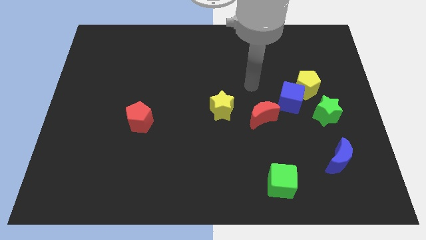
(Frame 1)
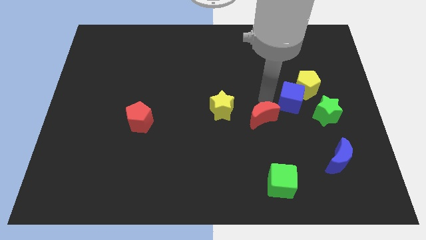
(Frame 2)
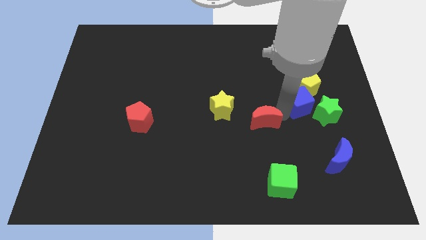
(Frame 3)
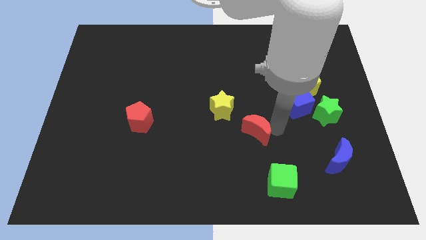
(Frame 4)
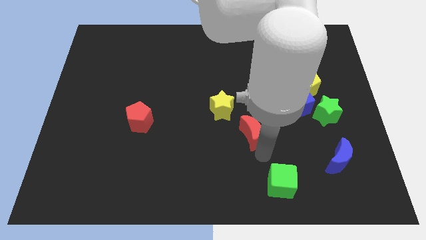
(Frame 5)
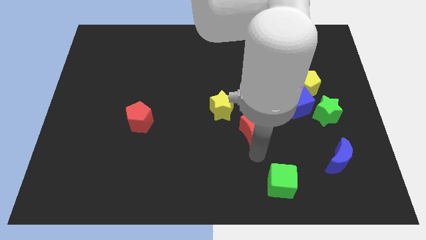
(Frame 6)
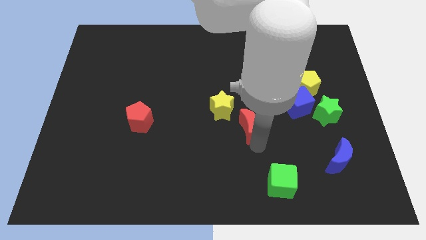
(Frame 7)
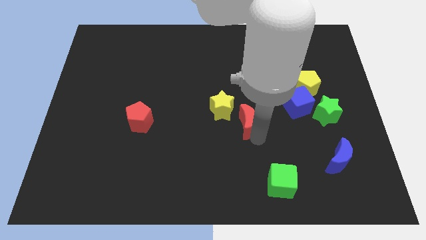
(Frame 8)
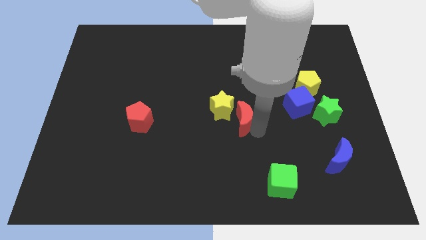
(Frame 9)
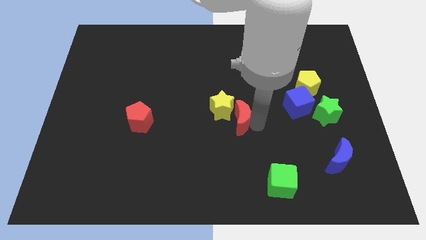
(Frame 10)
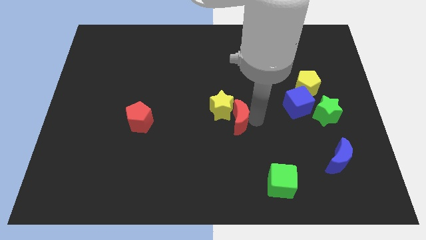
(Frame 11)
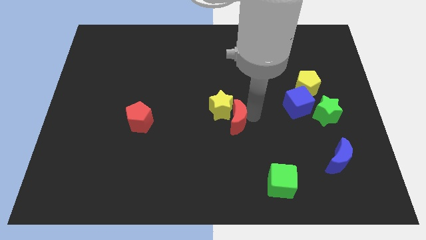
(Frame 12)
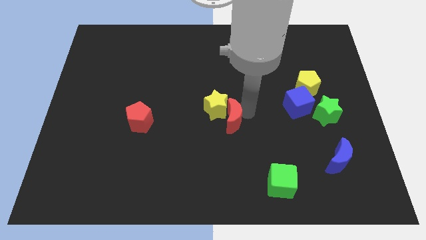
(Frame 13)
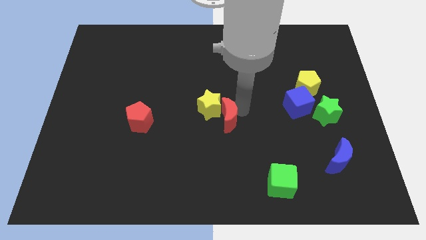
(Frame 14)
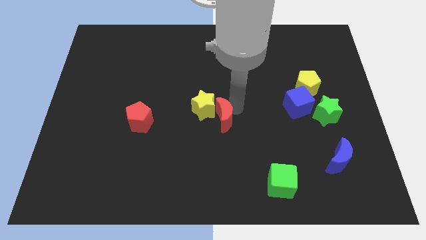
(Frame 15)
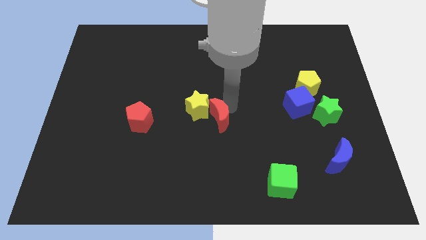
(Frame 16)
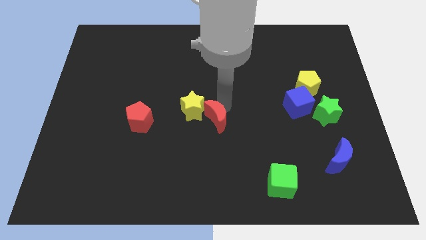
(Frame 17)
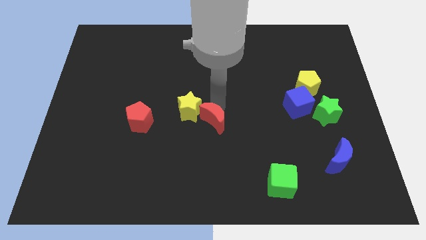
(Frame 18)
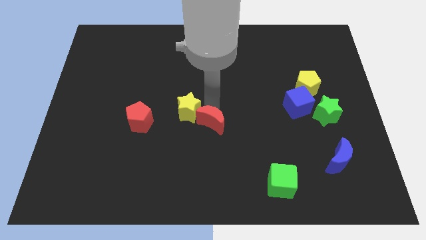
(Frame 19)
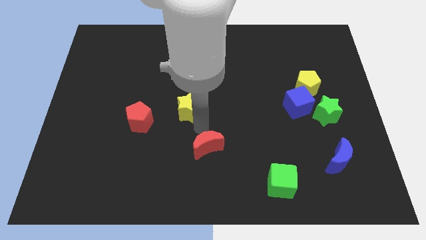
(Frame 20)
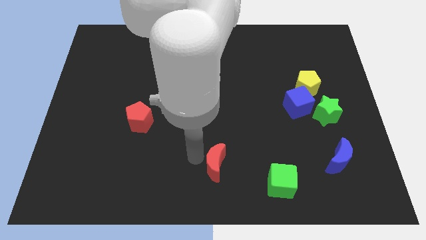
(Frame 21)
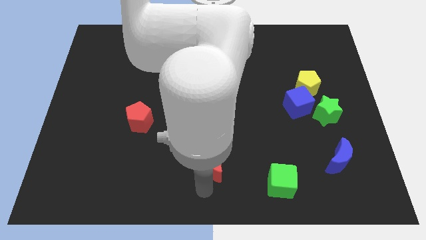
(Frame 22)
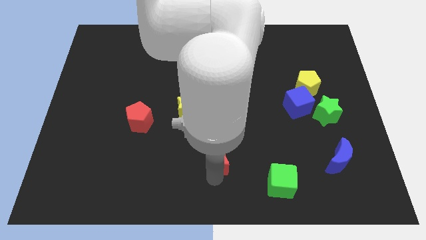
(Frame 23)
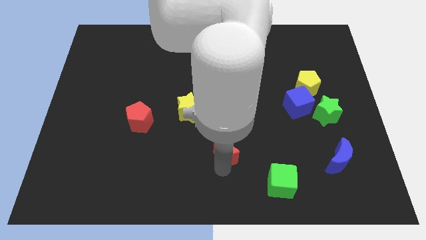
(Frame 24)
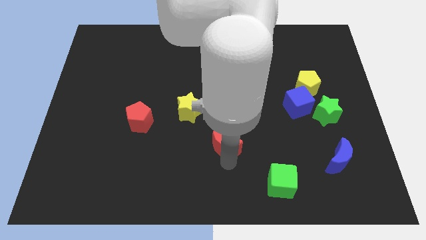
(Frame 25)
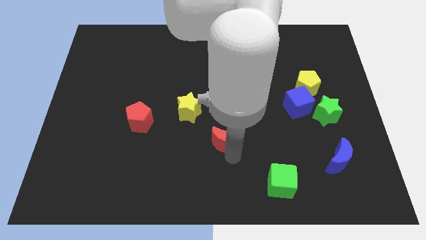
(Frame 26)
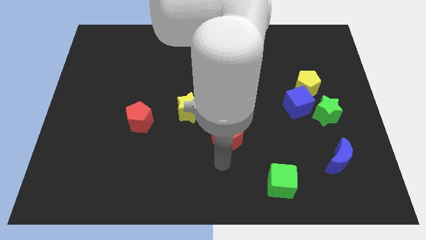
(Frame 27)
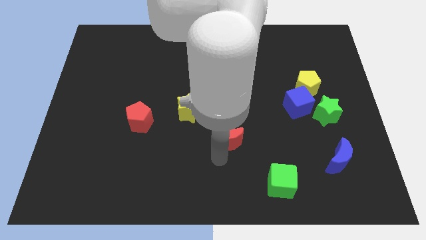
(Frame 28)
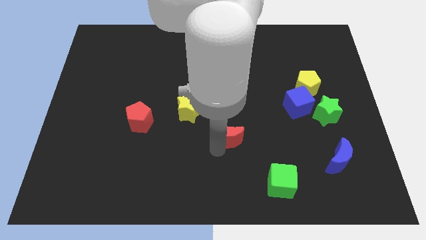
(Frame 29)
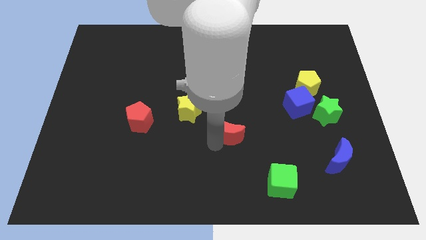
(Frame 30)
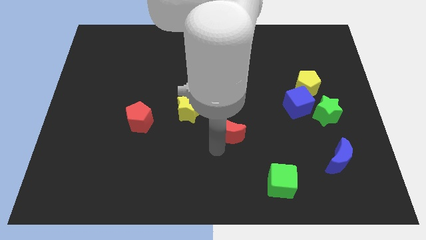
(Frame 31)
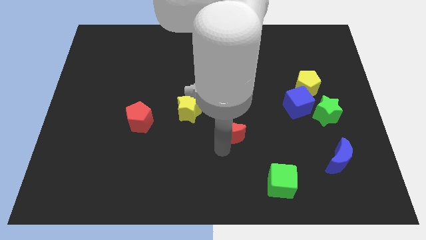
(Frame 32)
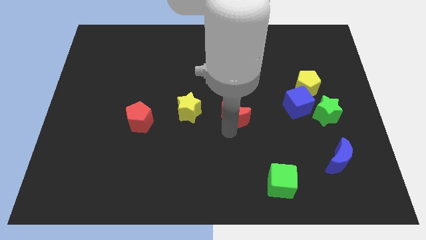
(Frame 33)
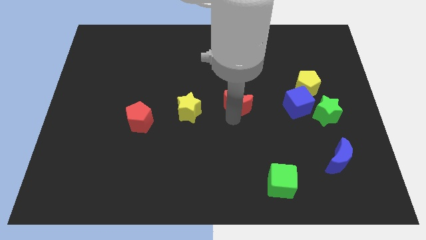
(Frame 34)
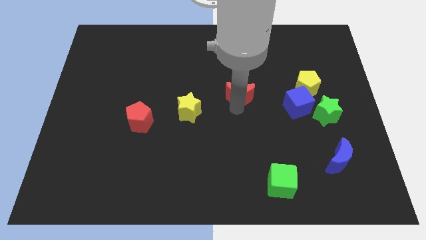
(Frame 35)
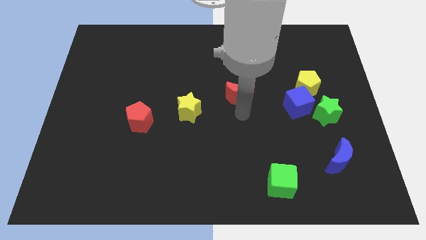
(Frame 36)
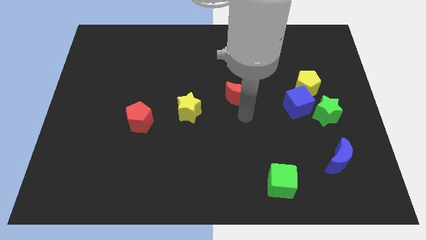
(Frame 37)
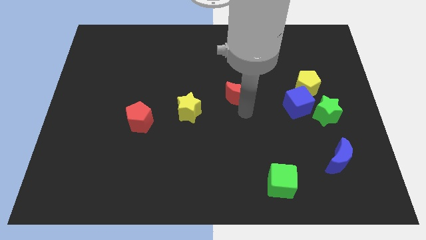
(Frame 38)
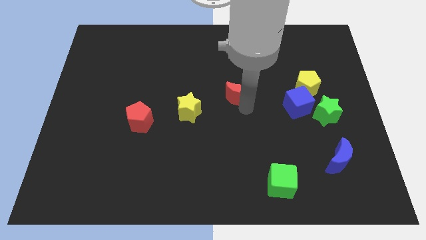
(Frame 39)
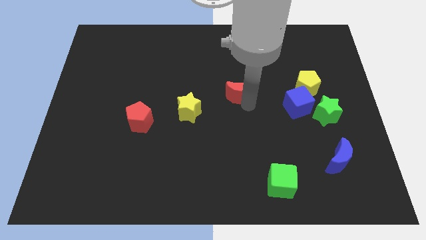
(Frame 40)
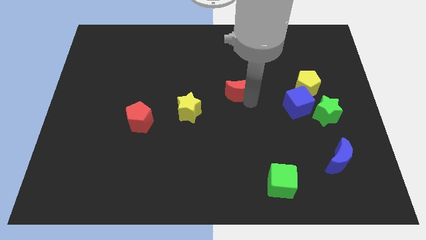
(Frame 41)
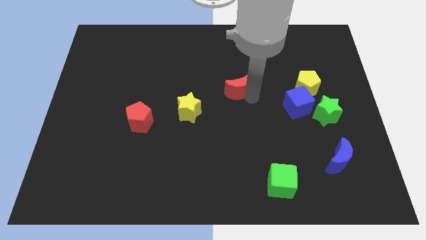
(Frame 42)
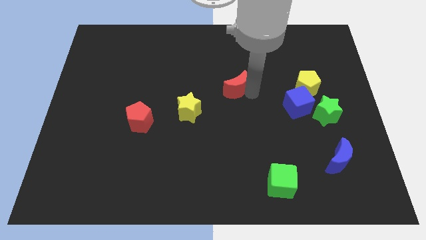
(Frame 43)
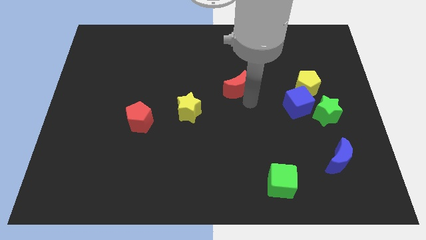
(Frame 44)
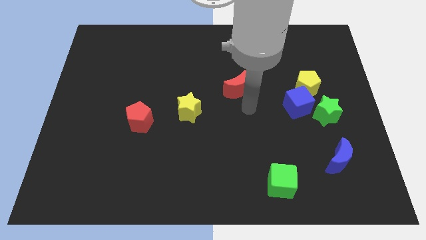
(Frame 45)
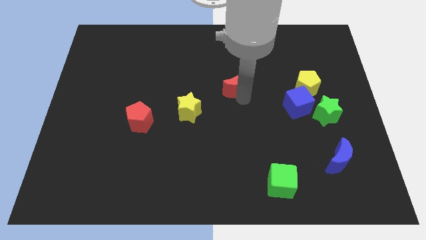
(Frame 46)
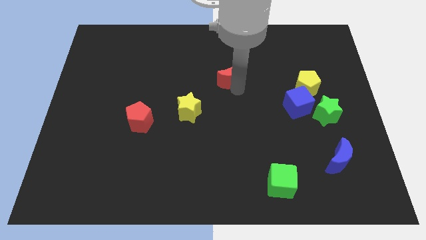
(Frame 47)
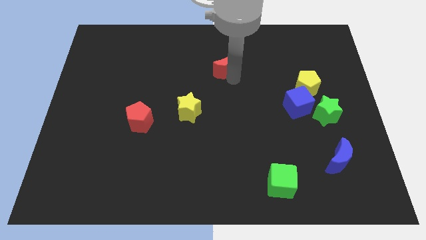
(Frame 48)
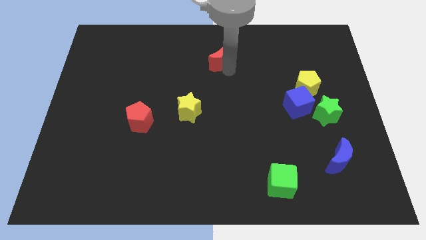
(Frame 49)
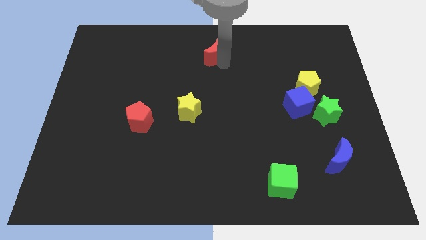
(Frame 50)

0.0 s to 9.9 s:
move the red moon to the top

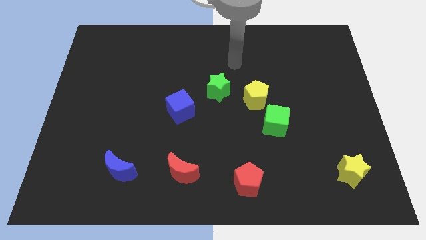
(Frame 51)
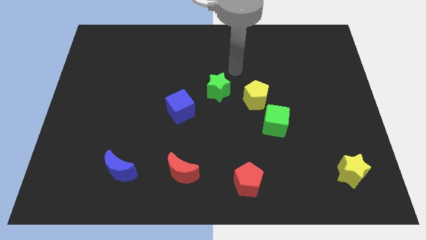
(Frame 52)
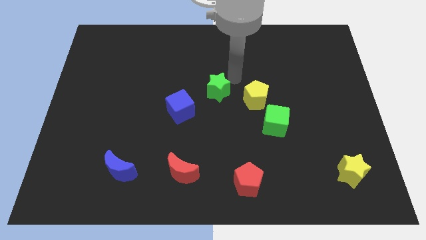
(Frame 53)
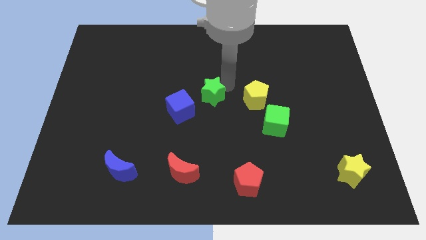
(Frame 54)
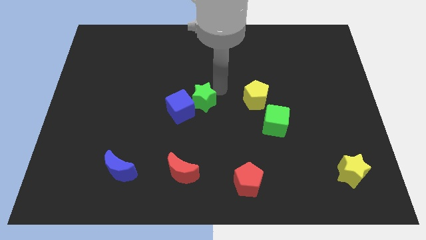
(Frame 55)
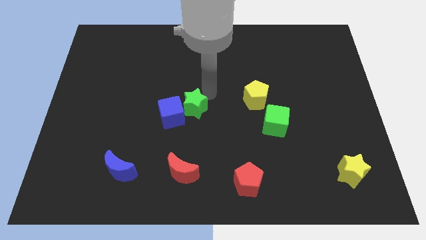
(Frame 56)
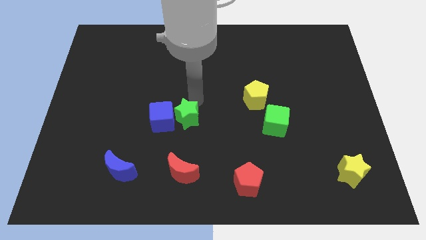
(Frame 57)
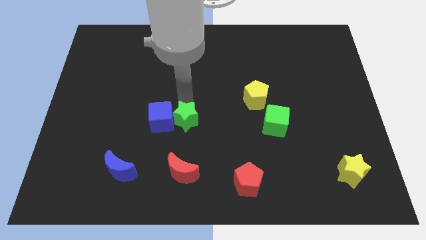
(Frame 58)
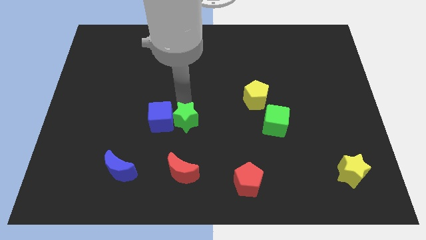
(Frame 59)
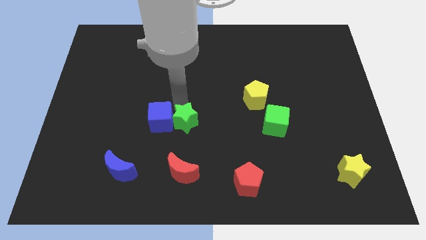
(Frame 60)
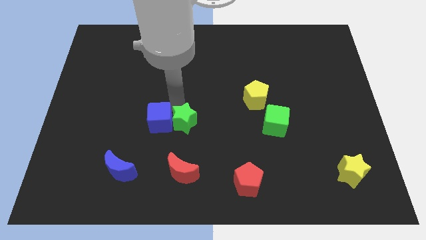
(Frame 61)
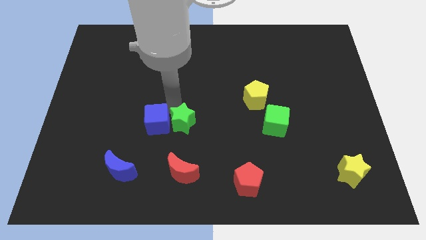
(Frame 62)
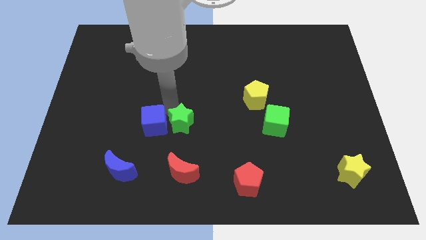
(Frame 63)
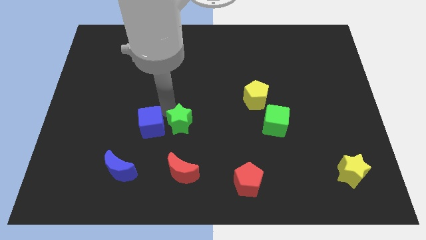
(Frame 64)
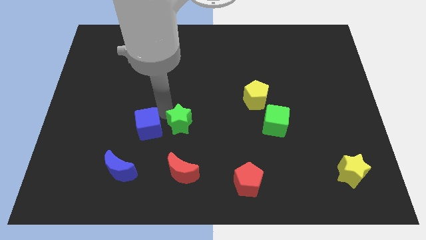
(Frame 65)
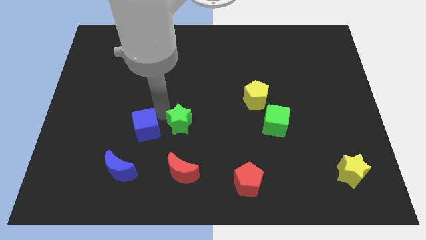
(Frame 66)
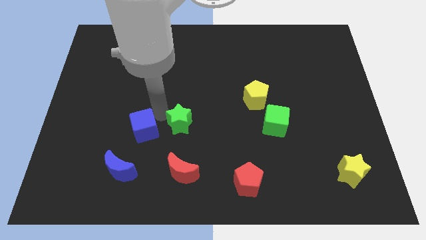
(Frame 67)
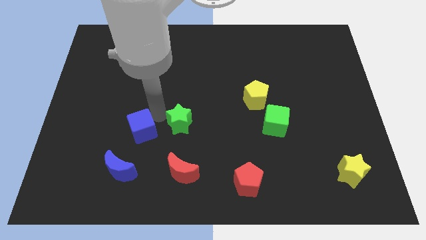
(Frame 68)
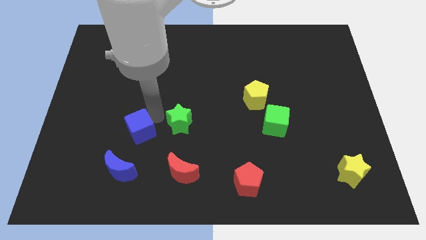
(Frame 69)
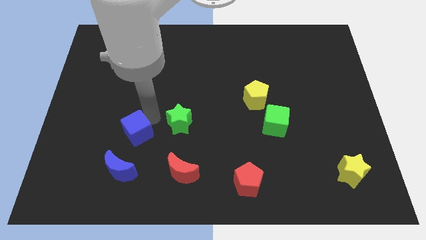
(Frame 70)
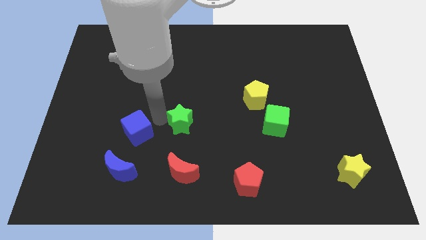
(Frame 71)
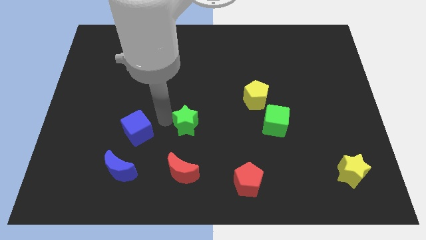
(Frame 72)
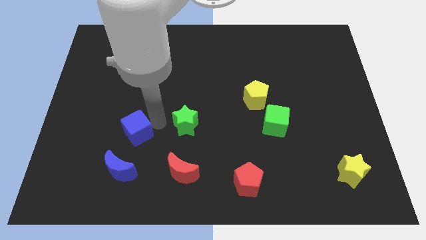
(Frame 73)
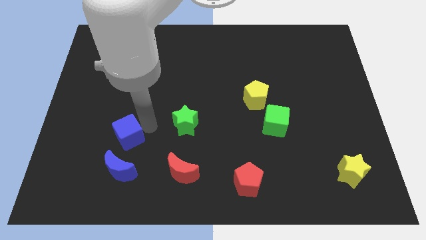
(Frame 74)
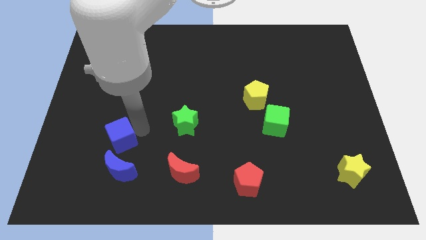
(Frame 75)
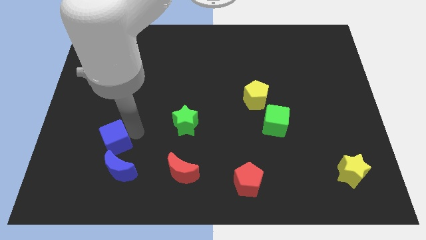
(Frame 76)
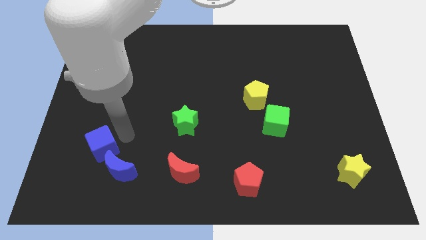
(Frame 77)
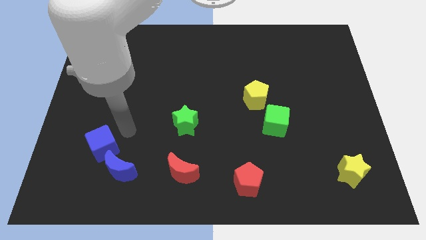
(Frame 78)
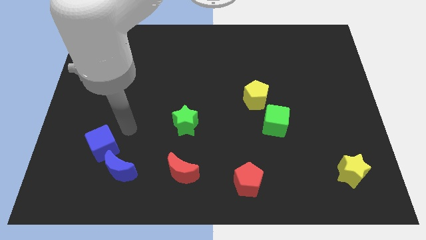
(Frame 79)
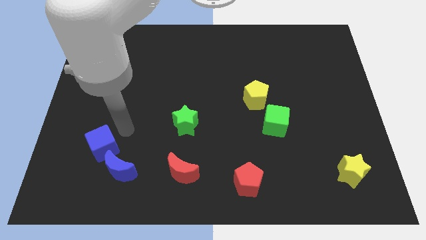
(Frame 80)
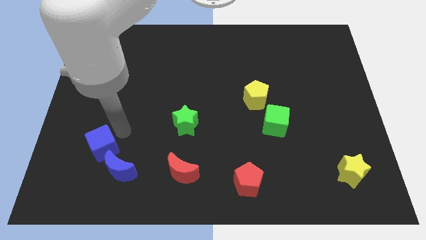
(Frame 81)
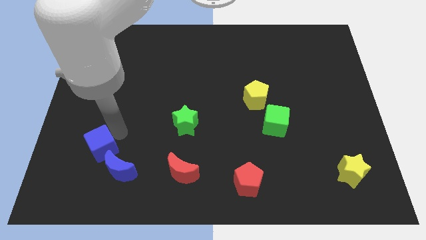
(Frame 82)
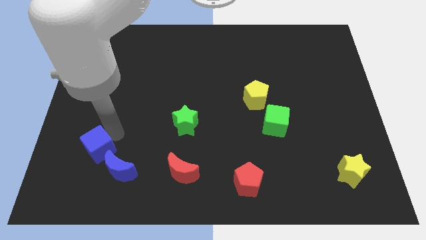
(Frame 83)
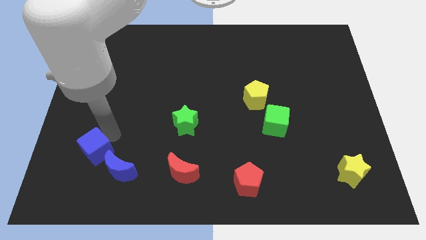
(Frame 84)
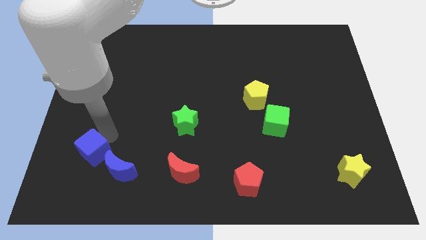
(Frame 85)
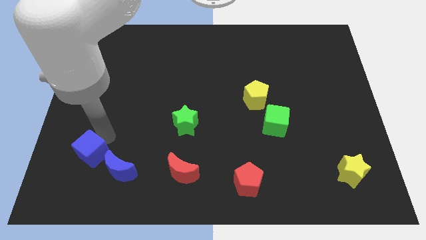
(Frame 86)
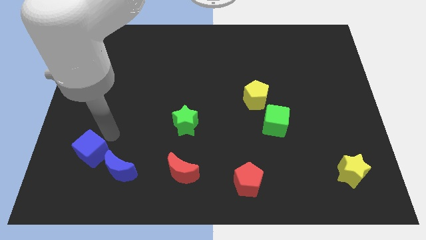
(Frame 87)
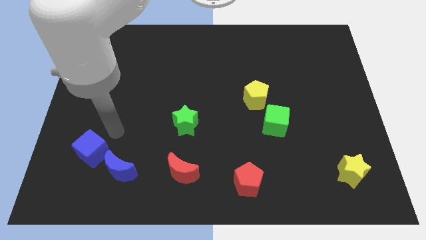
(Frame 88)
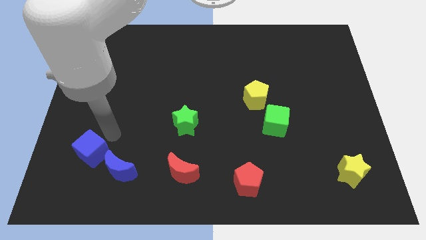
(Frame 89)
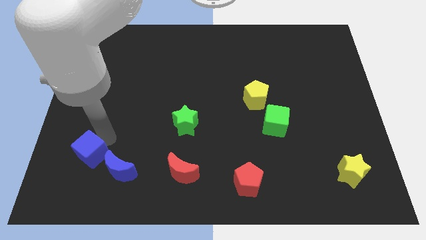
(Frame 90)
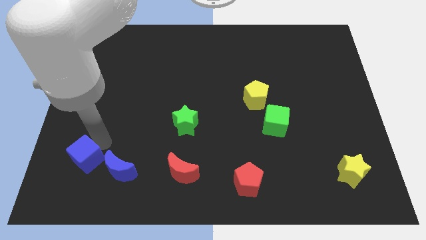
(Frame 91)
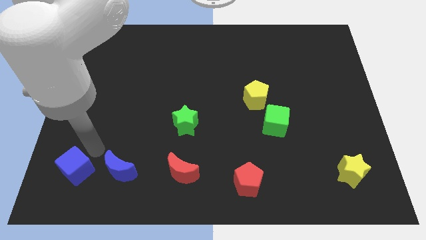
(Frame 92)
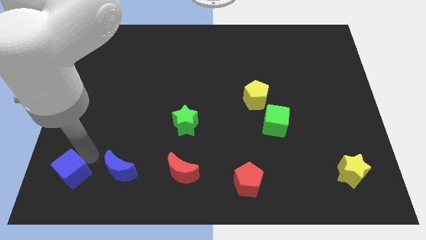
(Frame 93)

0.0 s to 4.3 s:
move the blue cube to the bottom left corner
